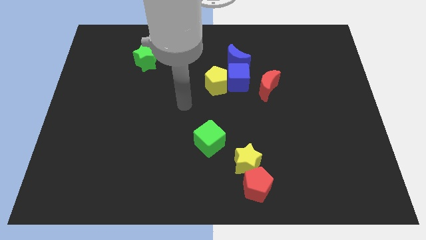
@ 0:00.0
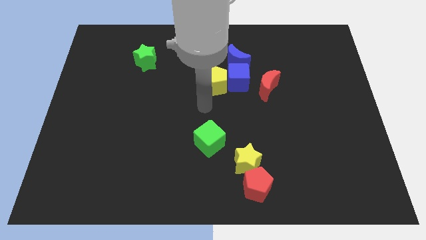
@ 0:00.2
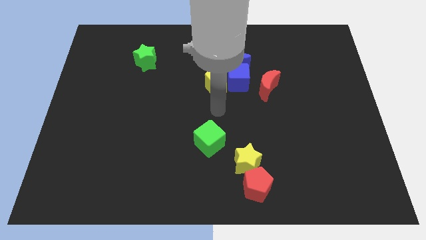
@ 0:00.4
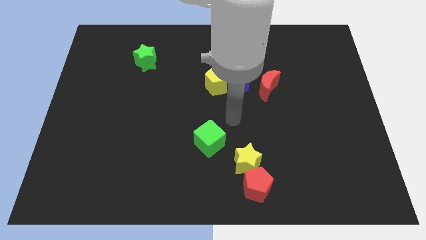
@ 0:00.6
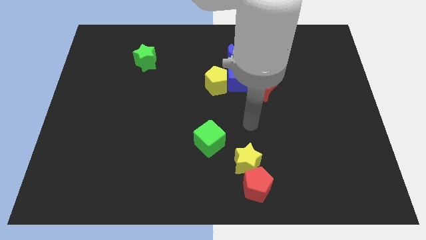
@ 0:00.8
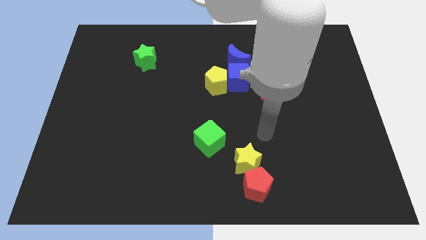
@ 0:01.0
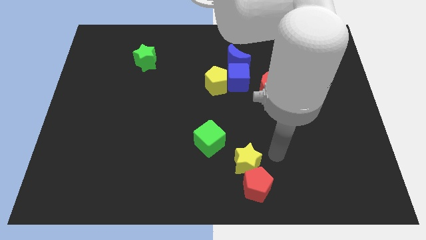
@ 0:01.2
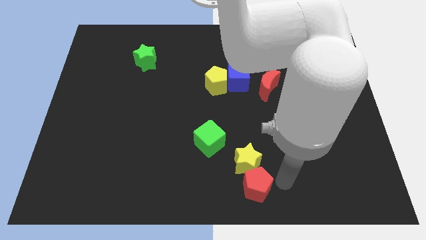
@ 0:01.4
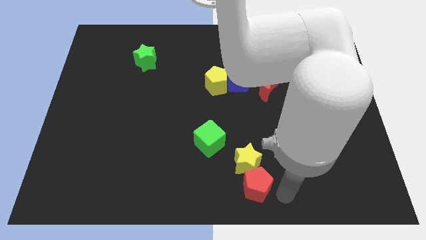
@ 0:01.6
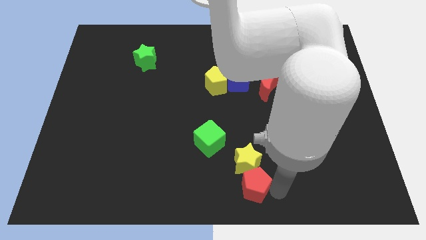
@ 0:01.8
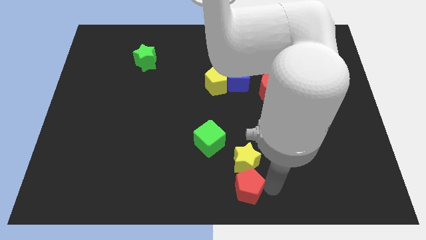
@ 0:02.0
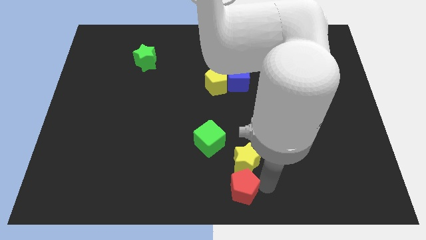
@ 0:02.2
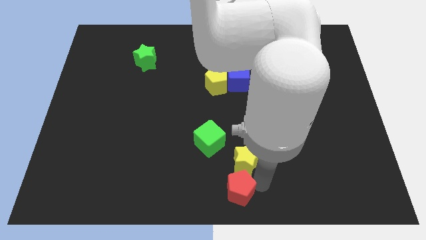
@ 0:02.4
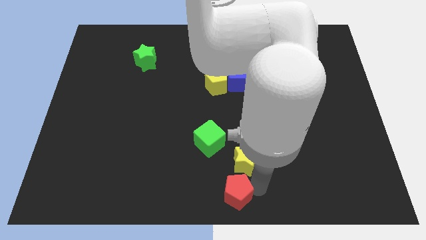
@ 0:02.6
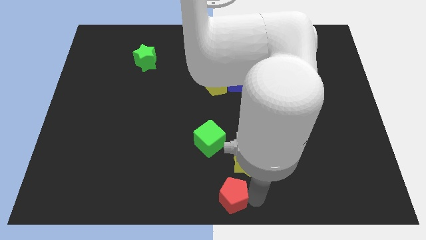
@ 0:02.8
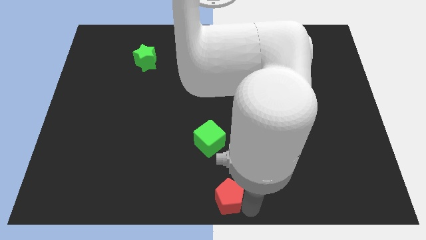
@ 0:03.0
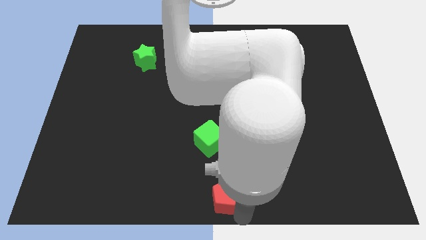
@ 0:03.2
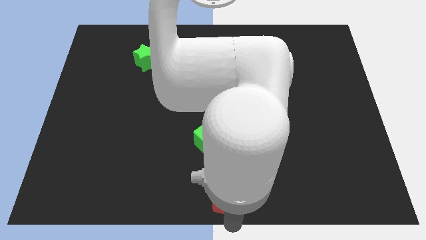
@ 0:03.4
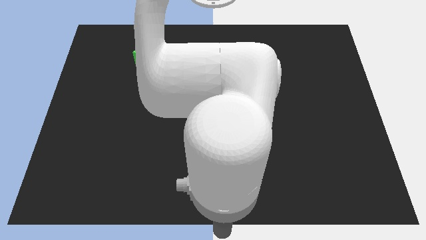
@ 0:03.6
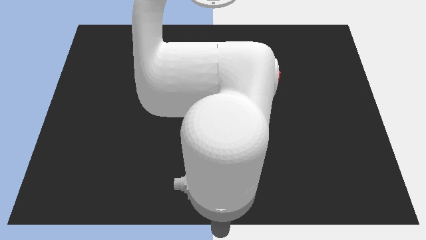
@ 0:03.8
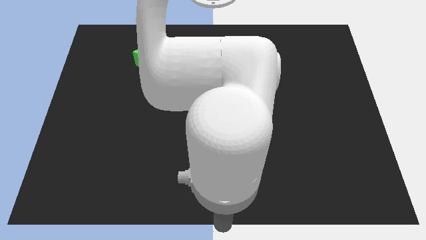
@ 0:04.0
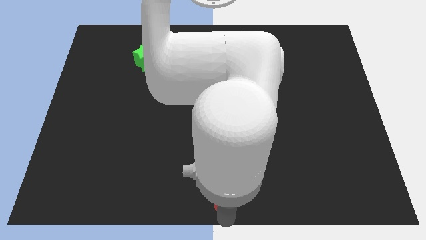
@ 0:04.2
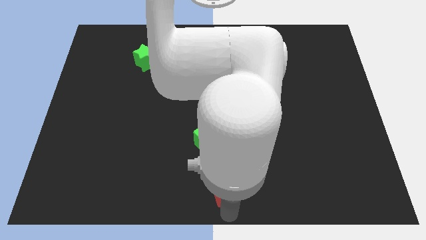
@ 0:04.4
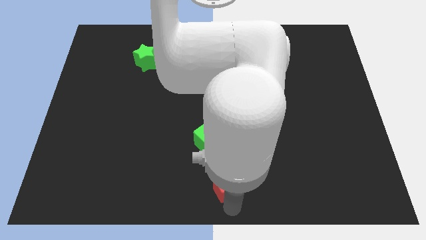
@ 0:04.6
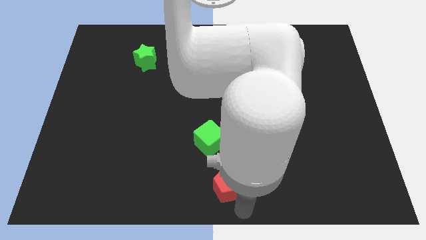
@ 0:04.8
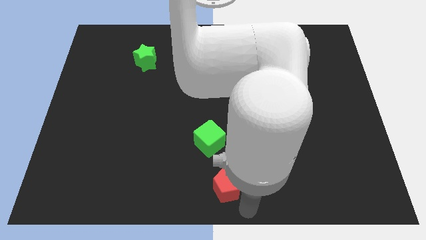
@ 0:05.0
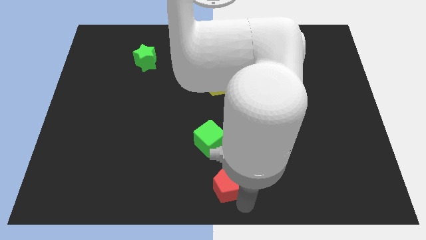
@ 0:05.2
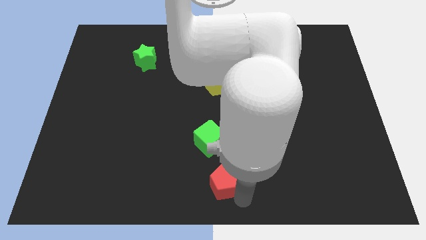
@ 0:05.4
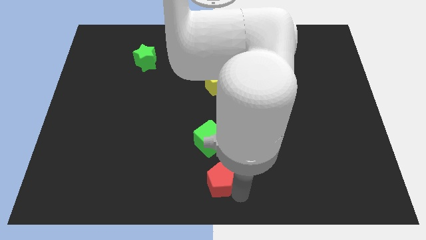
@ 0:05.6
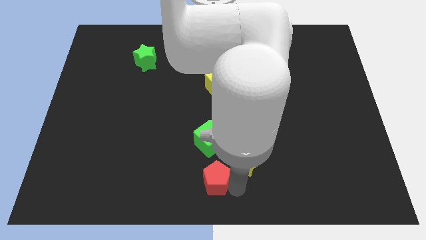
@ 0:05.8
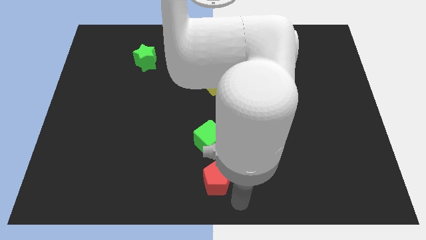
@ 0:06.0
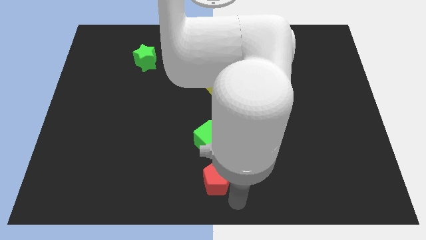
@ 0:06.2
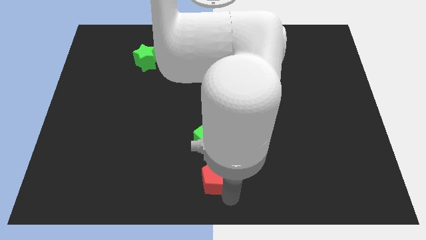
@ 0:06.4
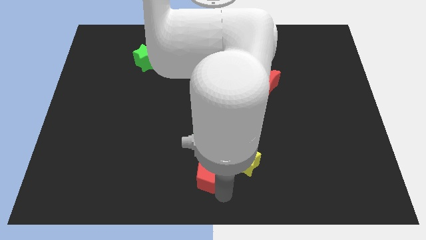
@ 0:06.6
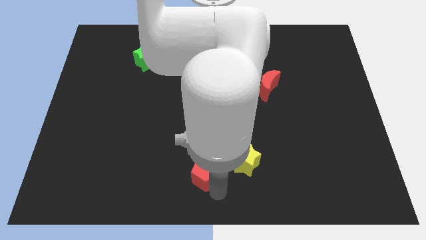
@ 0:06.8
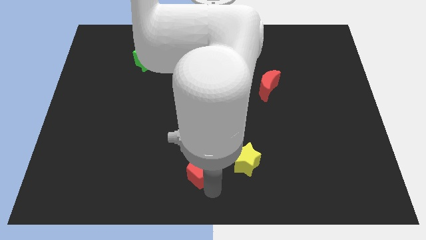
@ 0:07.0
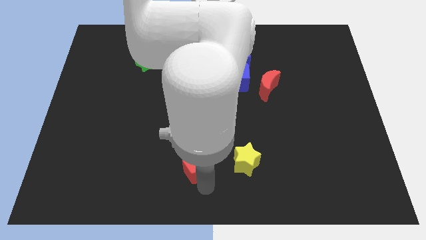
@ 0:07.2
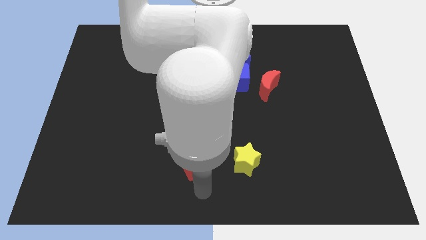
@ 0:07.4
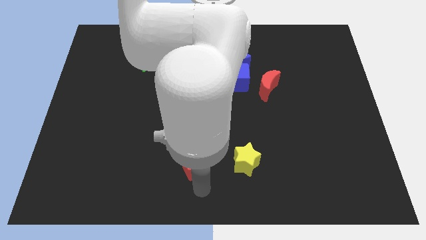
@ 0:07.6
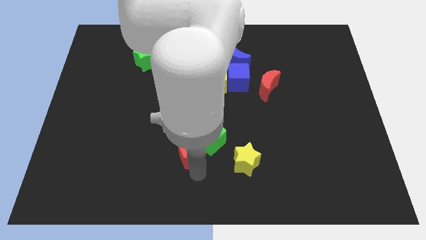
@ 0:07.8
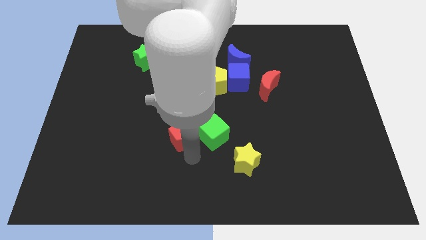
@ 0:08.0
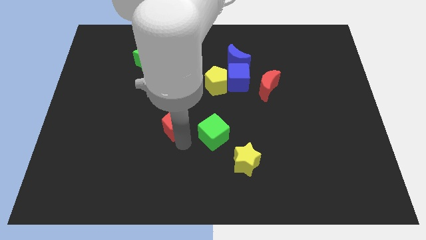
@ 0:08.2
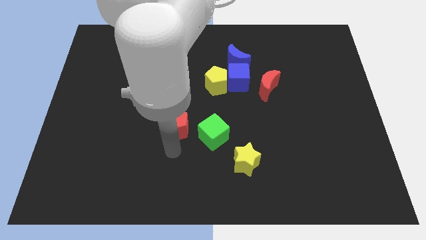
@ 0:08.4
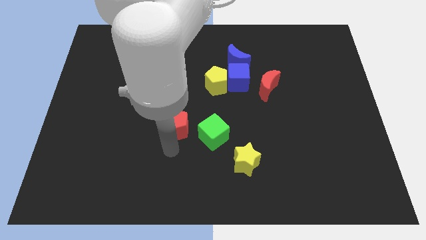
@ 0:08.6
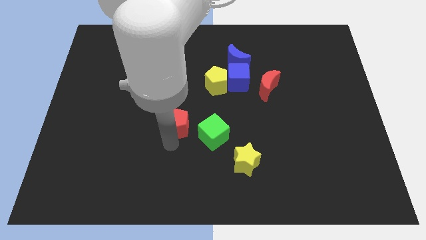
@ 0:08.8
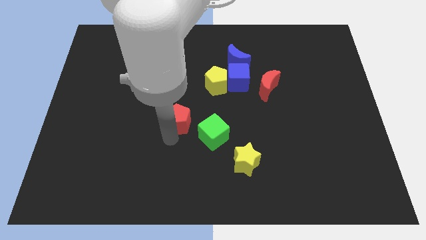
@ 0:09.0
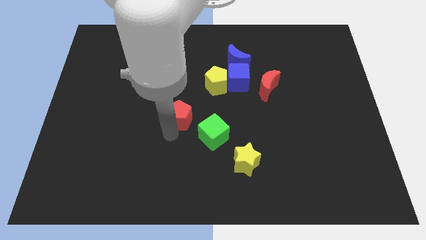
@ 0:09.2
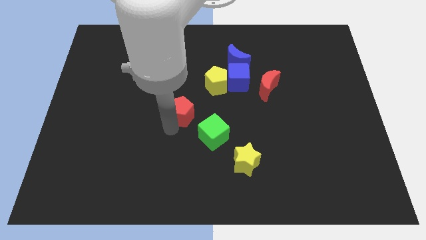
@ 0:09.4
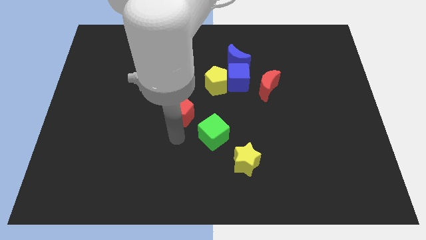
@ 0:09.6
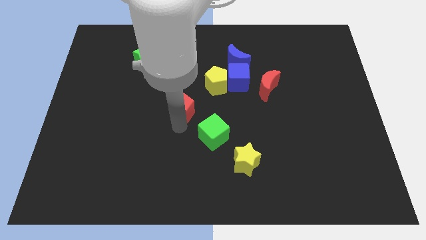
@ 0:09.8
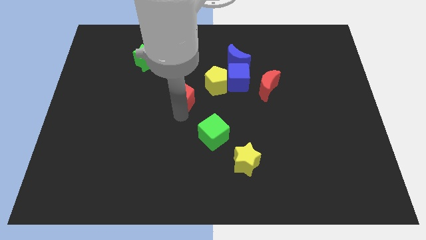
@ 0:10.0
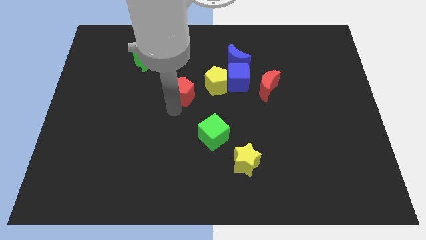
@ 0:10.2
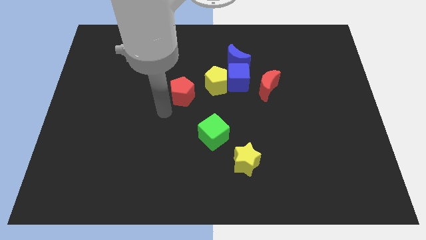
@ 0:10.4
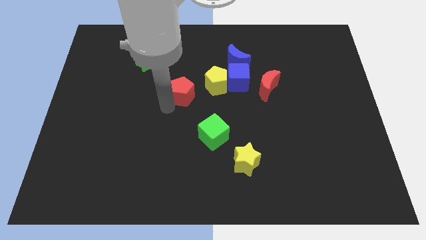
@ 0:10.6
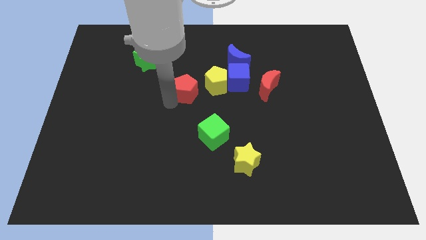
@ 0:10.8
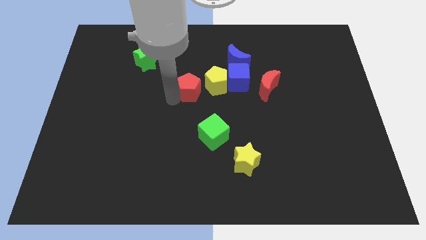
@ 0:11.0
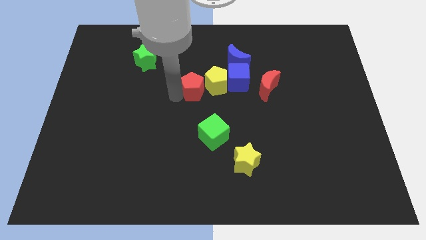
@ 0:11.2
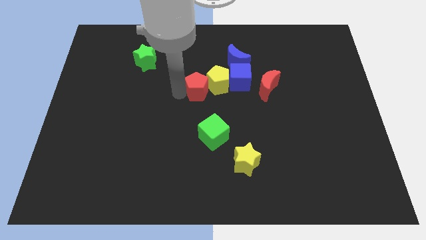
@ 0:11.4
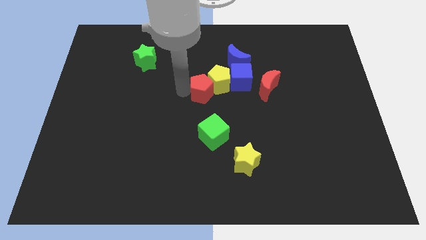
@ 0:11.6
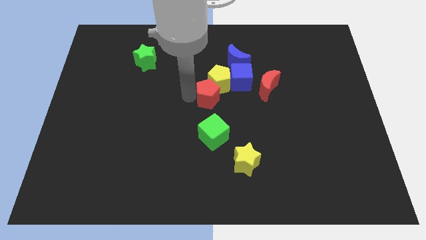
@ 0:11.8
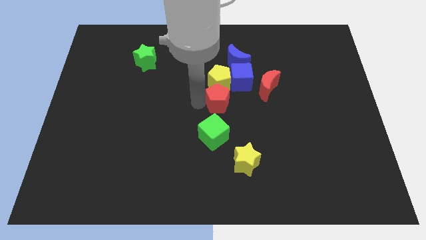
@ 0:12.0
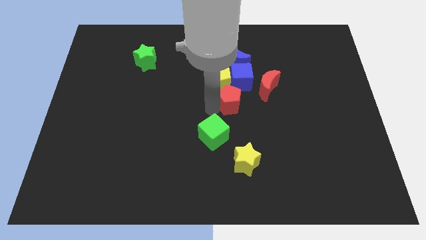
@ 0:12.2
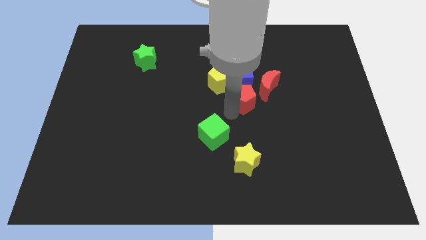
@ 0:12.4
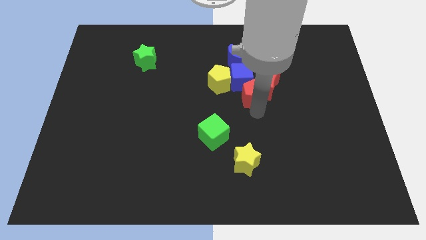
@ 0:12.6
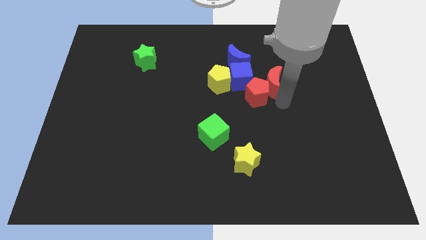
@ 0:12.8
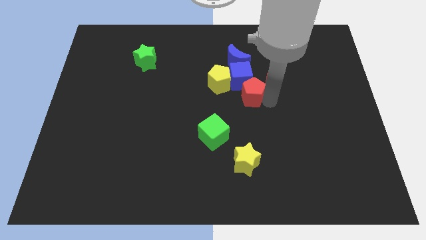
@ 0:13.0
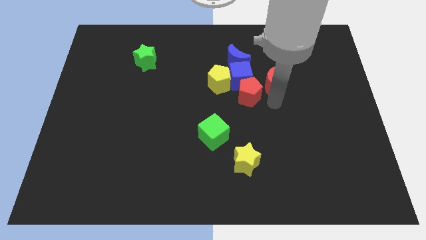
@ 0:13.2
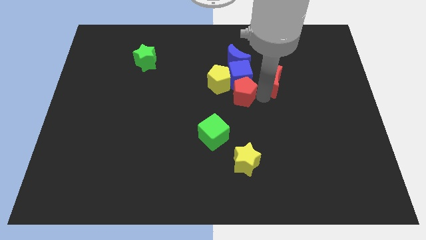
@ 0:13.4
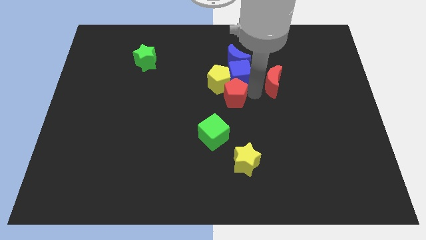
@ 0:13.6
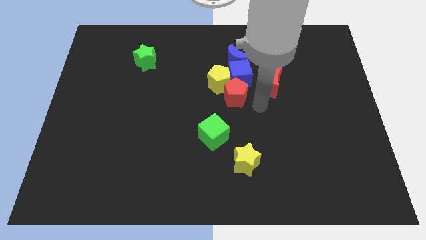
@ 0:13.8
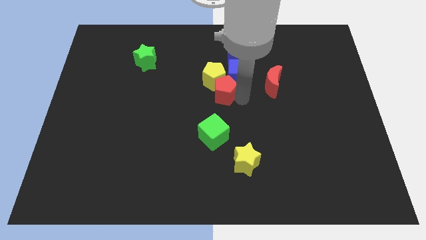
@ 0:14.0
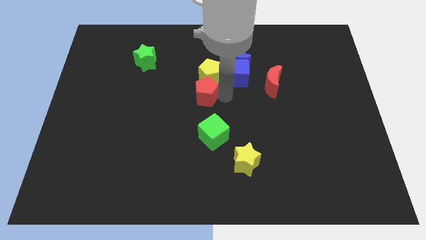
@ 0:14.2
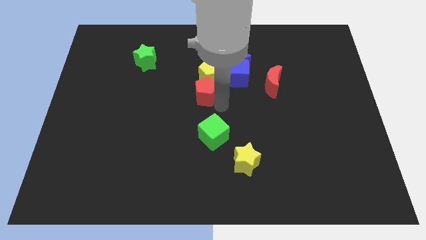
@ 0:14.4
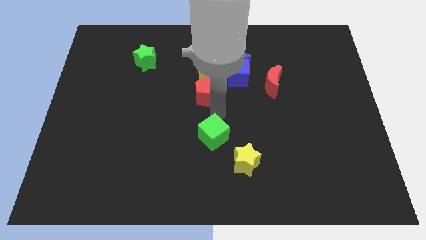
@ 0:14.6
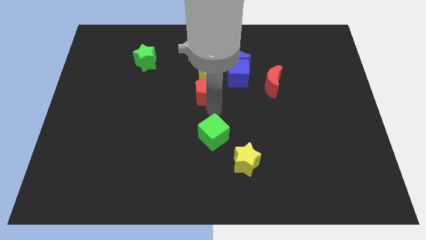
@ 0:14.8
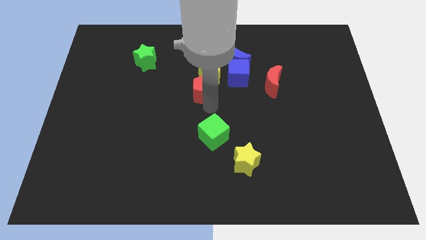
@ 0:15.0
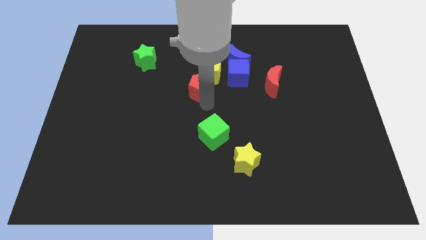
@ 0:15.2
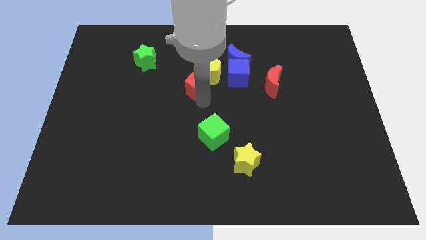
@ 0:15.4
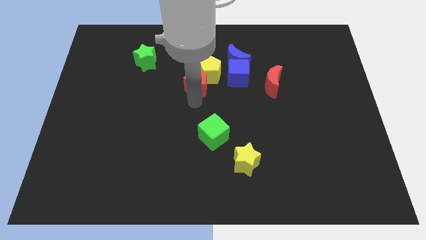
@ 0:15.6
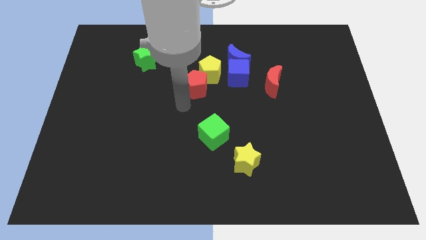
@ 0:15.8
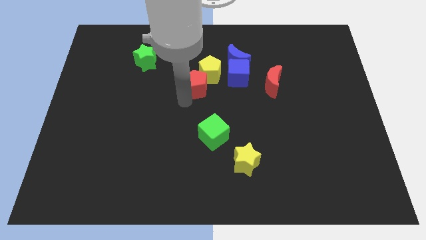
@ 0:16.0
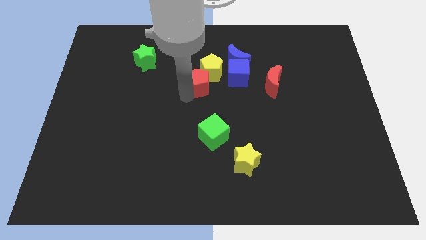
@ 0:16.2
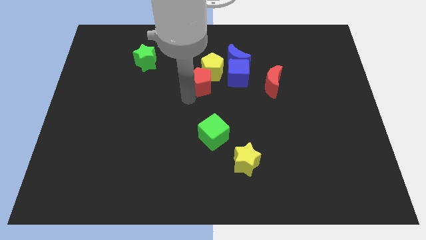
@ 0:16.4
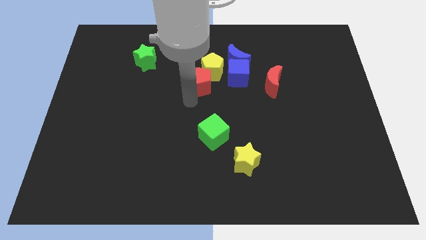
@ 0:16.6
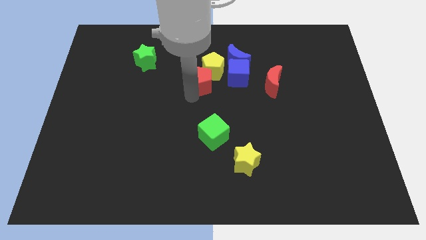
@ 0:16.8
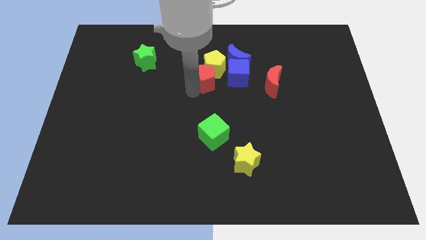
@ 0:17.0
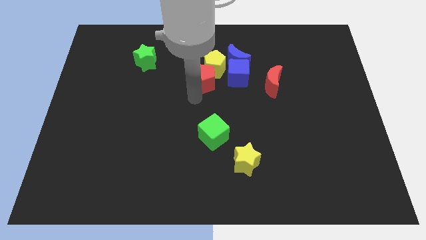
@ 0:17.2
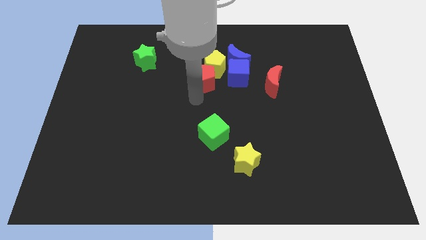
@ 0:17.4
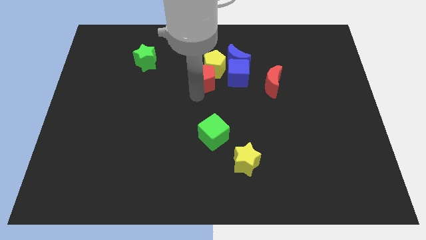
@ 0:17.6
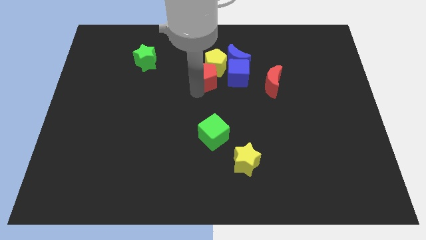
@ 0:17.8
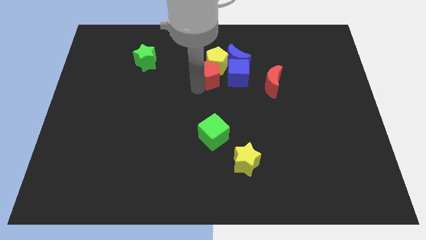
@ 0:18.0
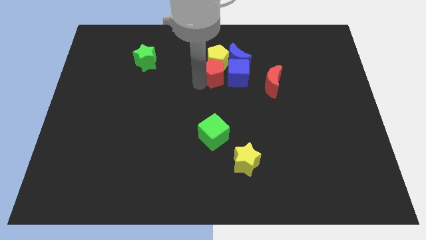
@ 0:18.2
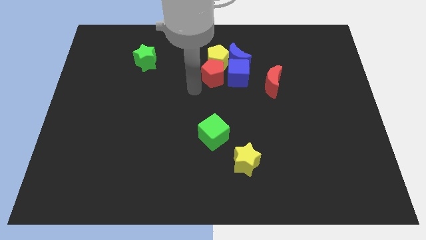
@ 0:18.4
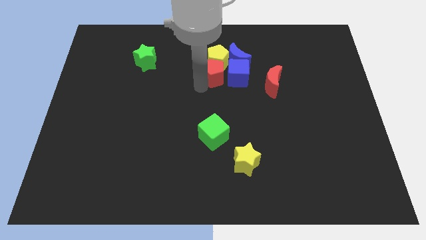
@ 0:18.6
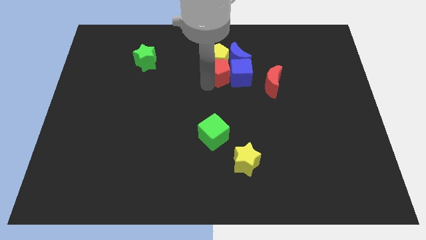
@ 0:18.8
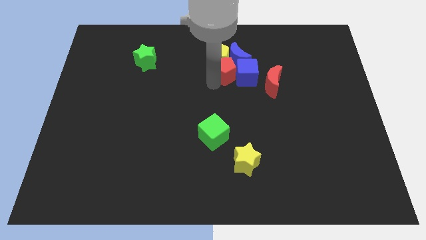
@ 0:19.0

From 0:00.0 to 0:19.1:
move the red pentagon close to the blue moon
